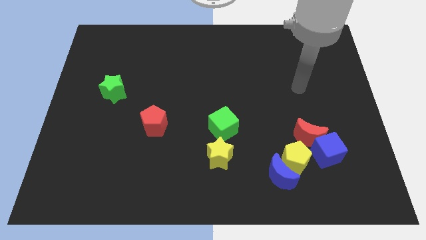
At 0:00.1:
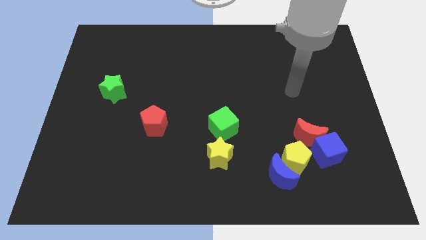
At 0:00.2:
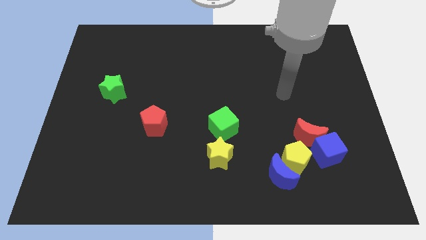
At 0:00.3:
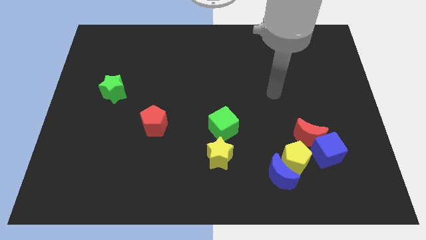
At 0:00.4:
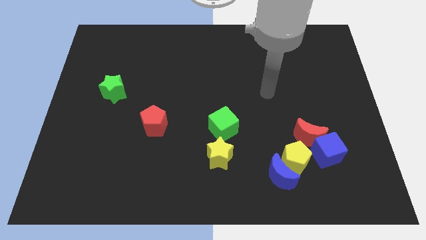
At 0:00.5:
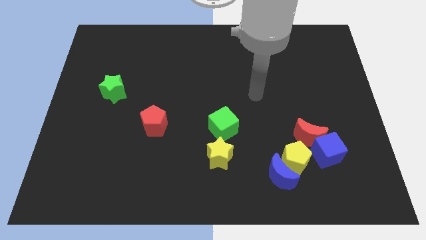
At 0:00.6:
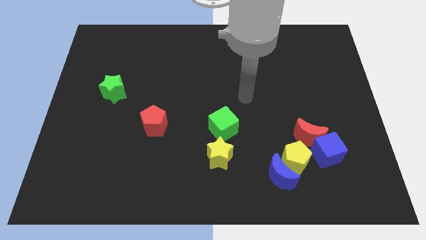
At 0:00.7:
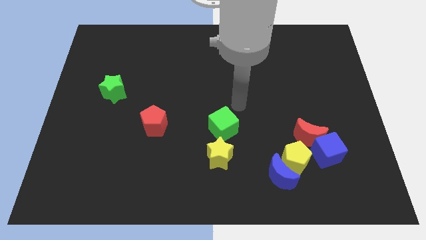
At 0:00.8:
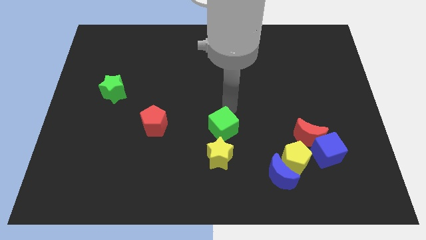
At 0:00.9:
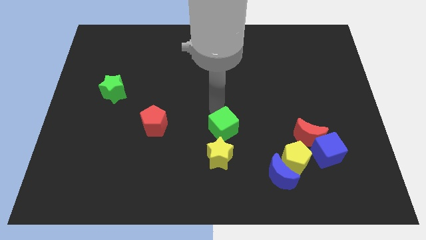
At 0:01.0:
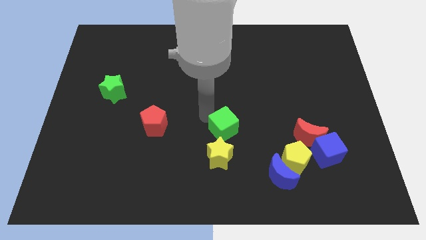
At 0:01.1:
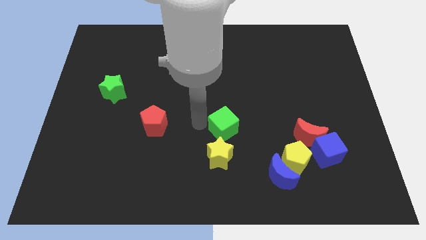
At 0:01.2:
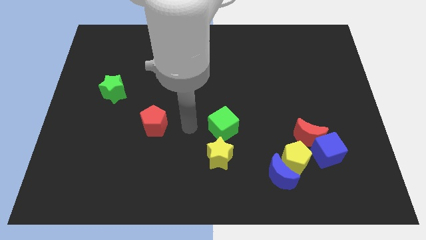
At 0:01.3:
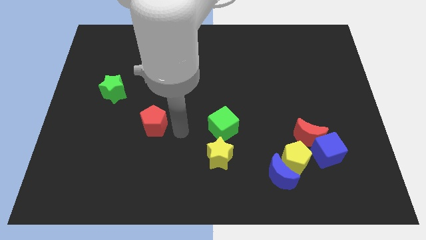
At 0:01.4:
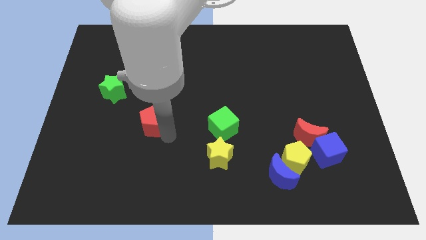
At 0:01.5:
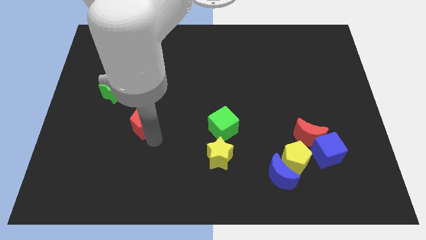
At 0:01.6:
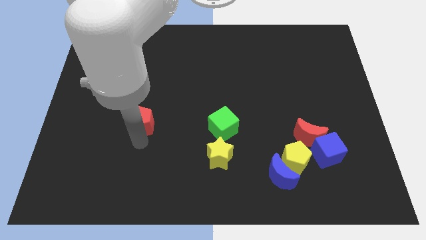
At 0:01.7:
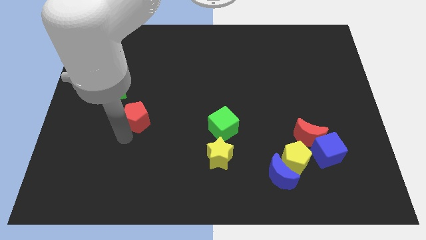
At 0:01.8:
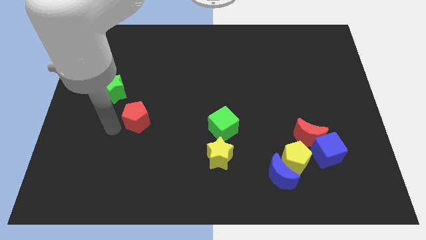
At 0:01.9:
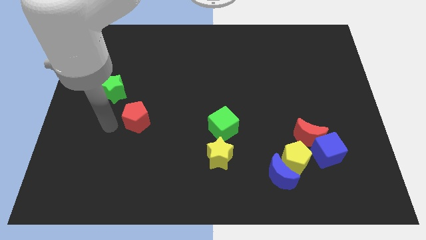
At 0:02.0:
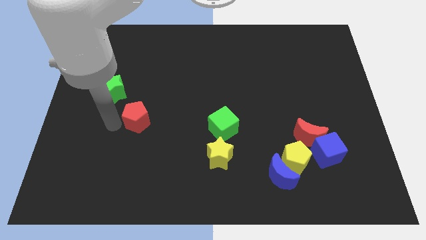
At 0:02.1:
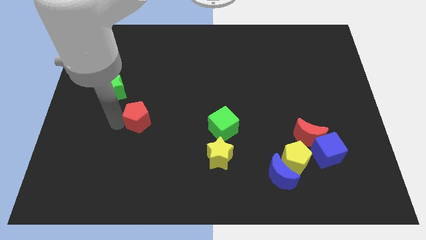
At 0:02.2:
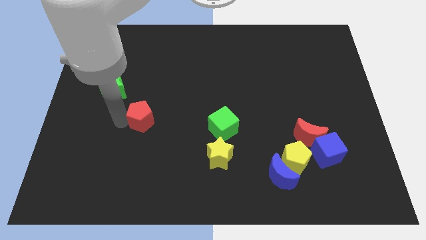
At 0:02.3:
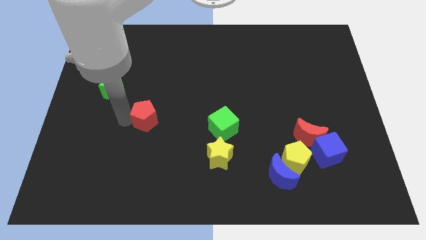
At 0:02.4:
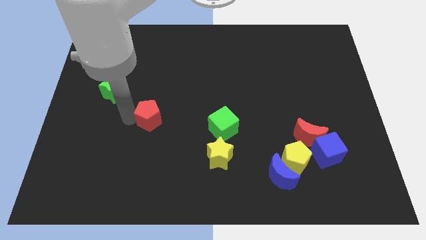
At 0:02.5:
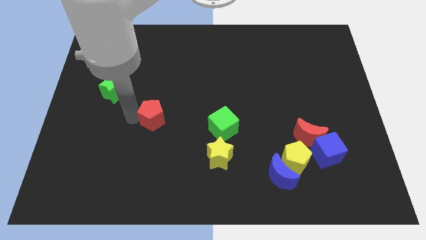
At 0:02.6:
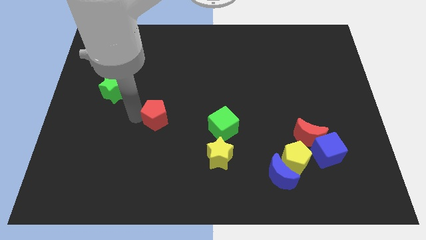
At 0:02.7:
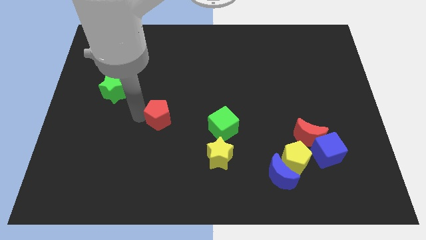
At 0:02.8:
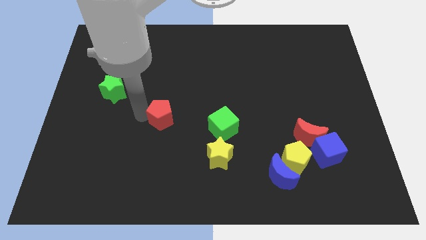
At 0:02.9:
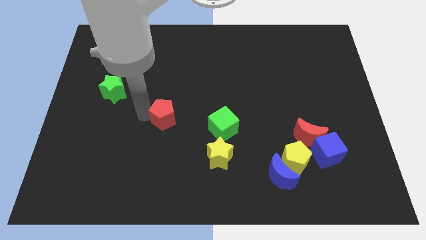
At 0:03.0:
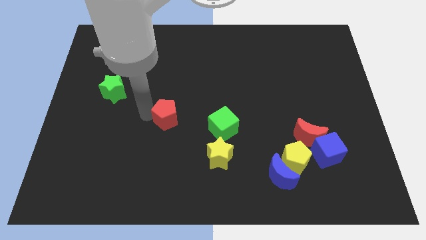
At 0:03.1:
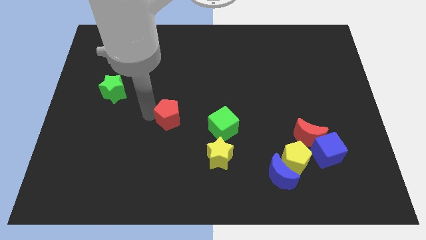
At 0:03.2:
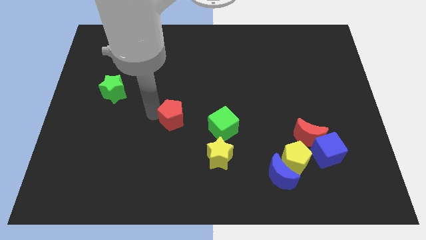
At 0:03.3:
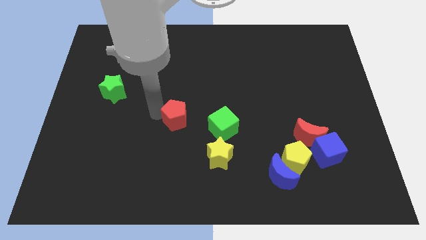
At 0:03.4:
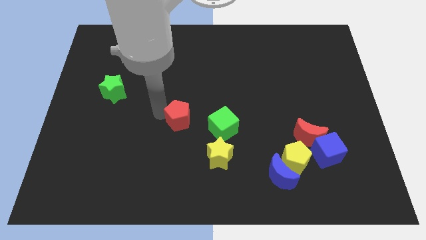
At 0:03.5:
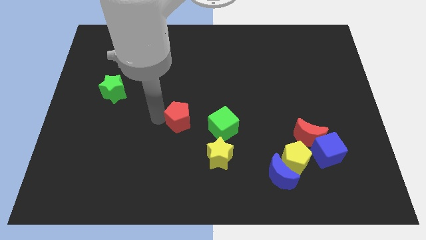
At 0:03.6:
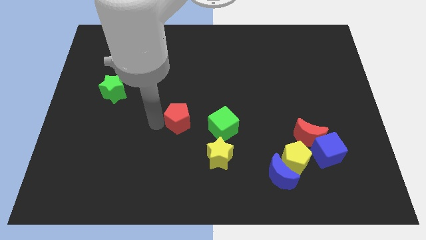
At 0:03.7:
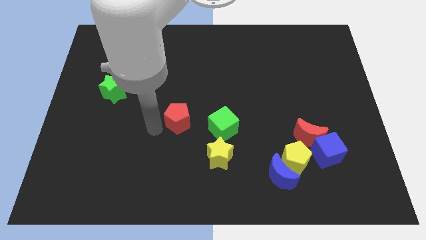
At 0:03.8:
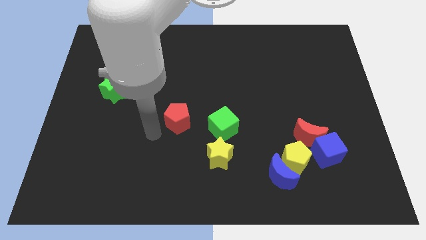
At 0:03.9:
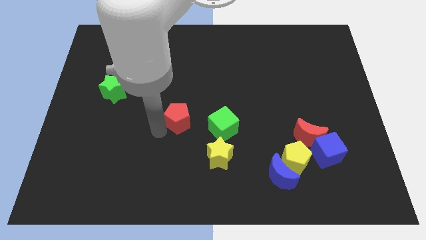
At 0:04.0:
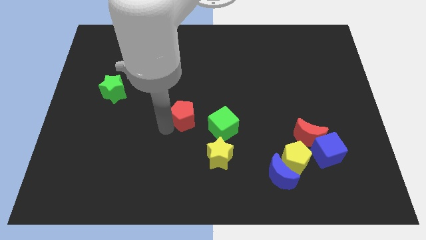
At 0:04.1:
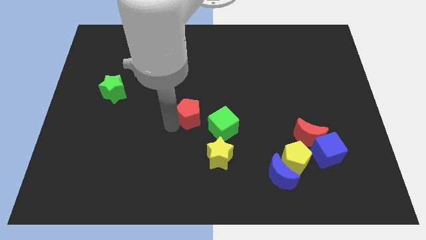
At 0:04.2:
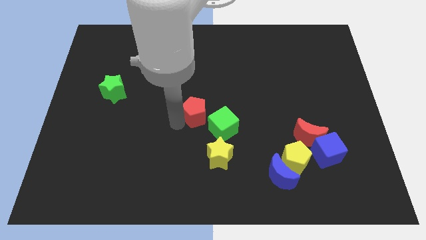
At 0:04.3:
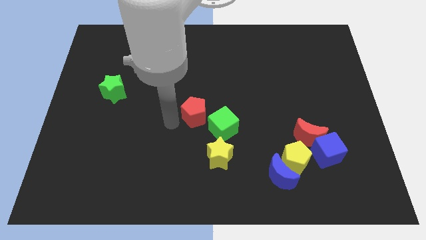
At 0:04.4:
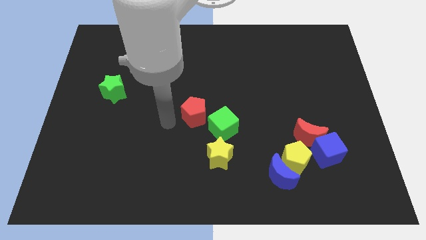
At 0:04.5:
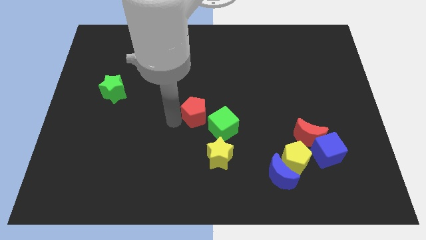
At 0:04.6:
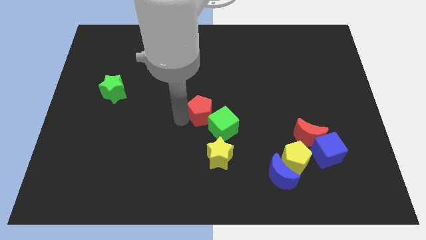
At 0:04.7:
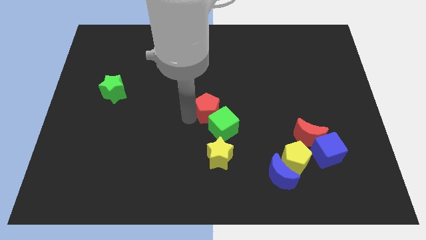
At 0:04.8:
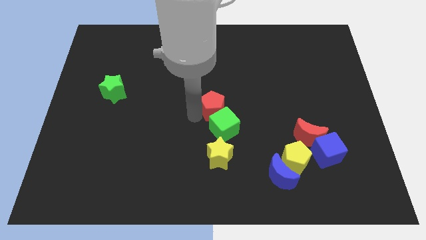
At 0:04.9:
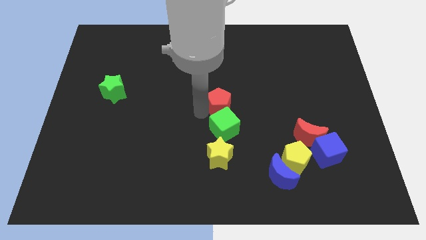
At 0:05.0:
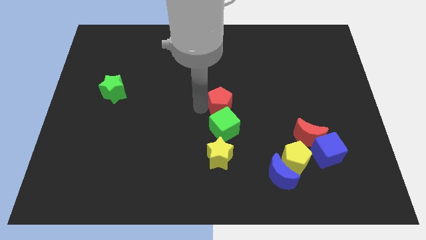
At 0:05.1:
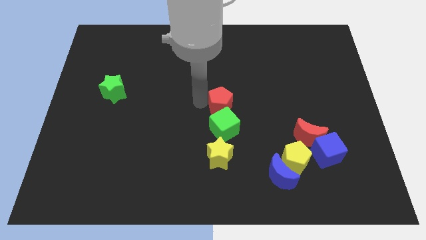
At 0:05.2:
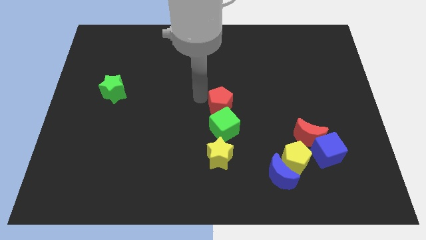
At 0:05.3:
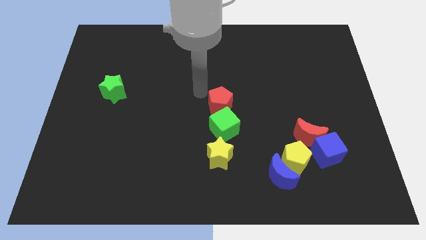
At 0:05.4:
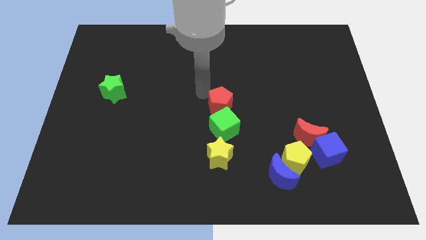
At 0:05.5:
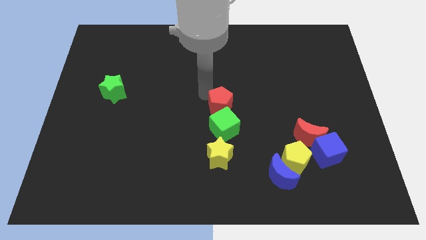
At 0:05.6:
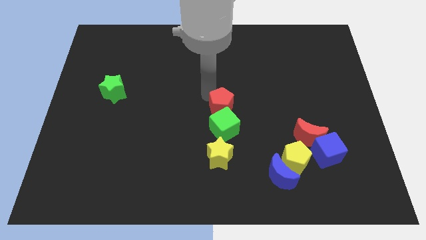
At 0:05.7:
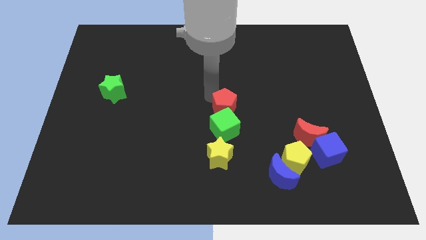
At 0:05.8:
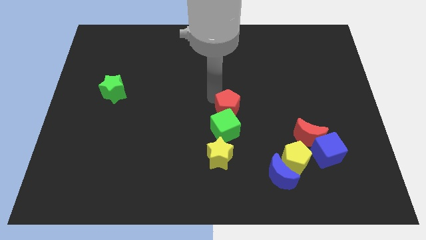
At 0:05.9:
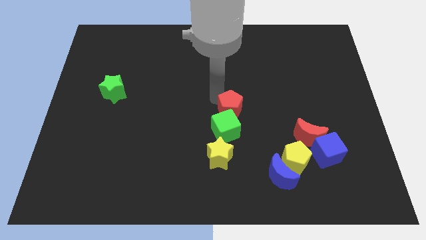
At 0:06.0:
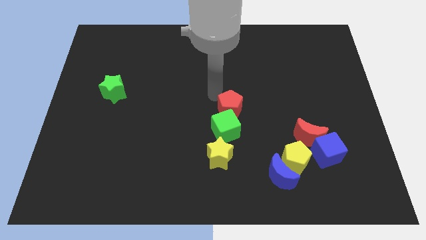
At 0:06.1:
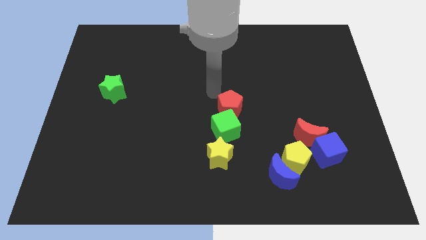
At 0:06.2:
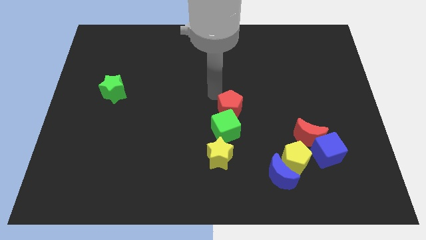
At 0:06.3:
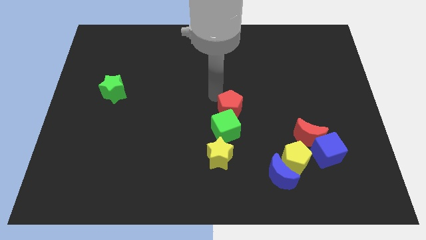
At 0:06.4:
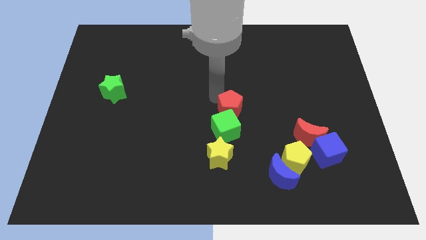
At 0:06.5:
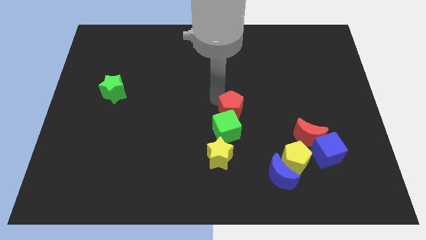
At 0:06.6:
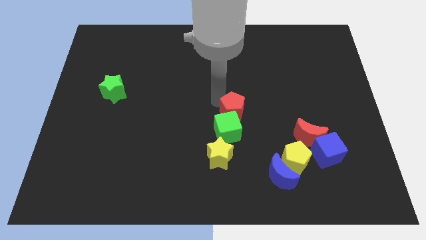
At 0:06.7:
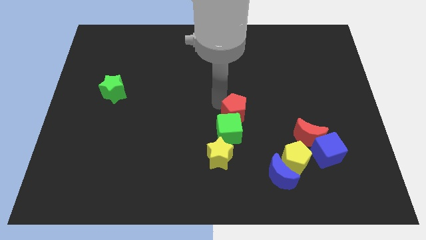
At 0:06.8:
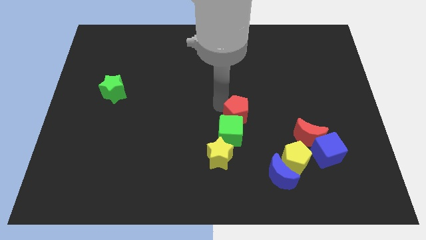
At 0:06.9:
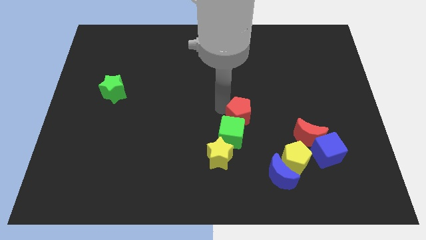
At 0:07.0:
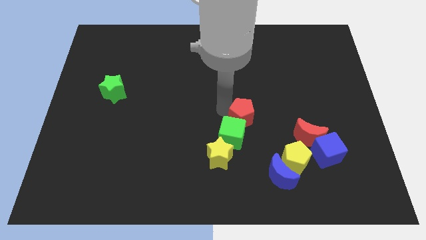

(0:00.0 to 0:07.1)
push the red pentagon to the right

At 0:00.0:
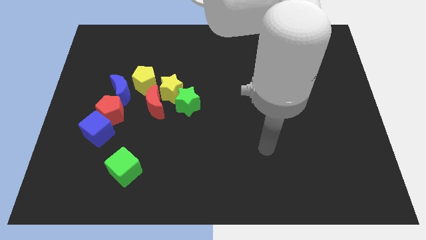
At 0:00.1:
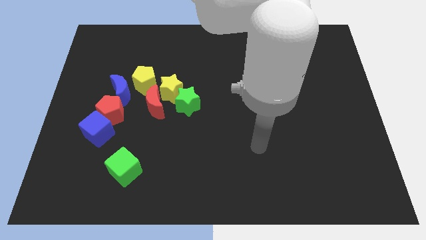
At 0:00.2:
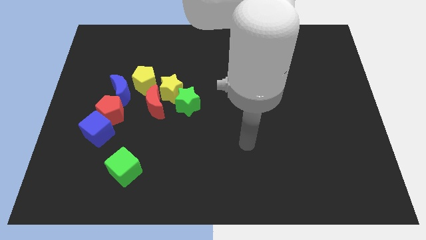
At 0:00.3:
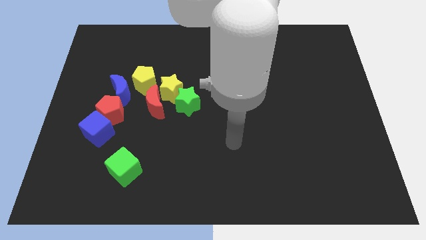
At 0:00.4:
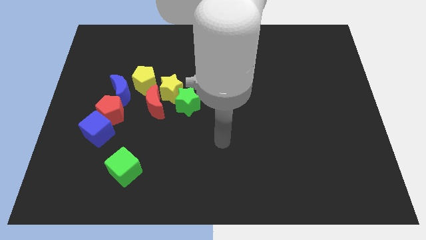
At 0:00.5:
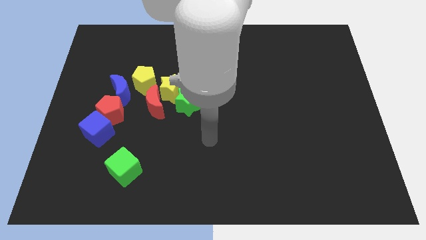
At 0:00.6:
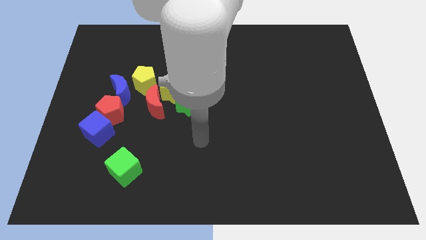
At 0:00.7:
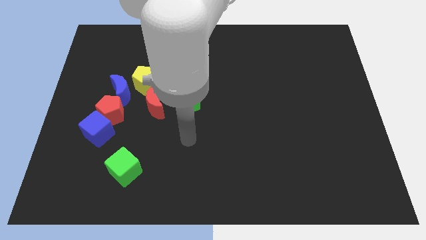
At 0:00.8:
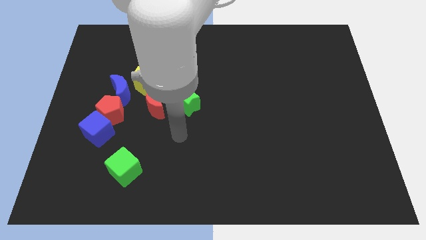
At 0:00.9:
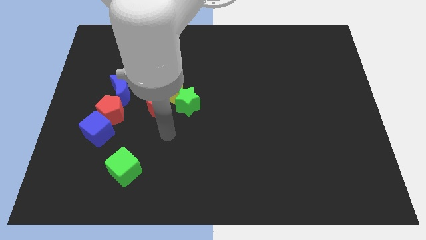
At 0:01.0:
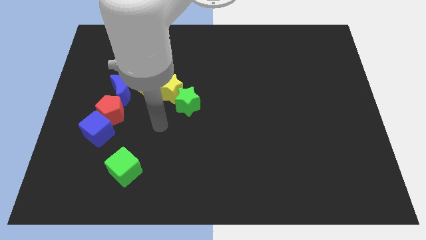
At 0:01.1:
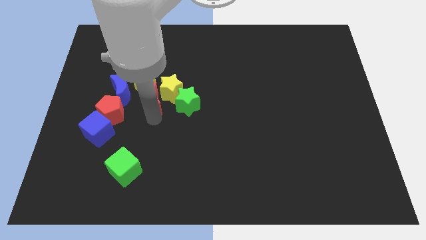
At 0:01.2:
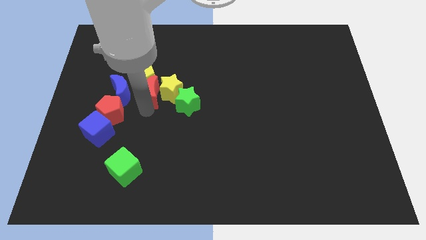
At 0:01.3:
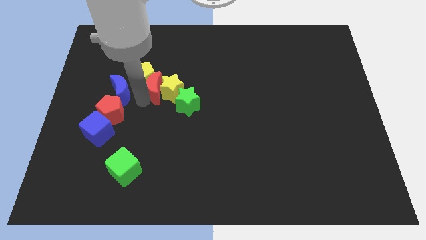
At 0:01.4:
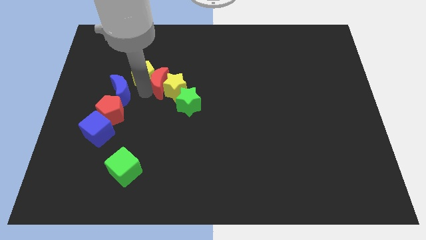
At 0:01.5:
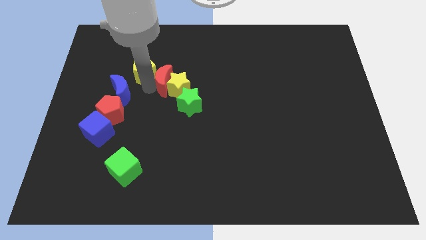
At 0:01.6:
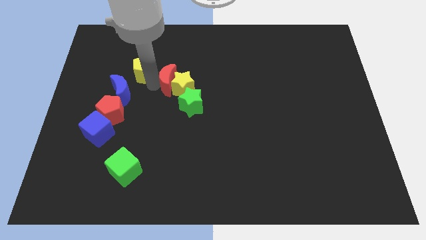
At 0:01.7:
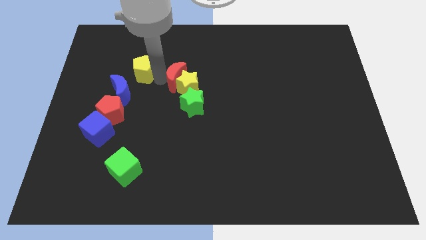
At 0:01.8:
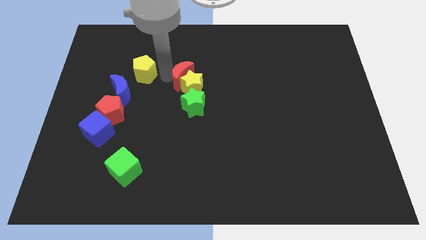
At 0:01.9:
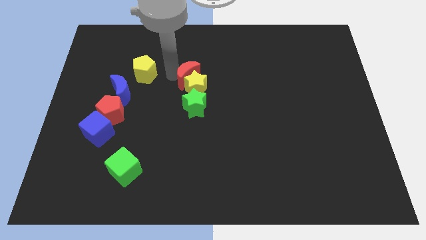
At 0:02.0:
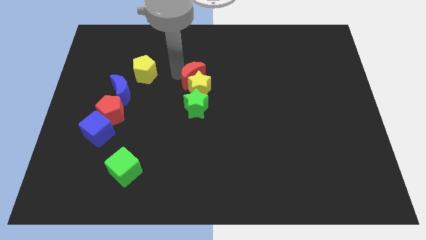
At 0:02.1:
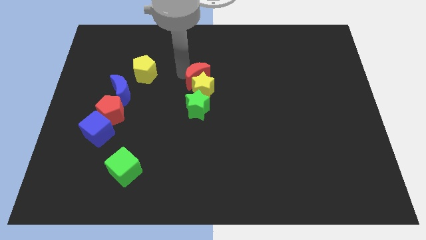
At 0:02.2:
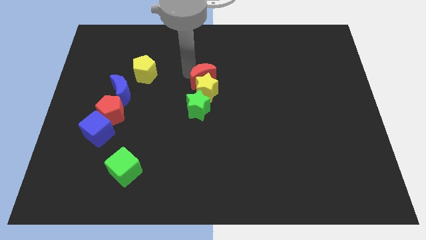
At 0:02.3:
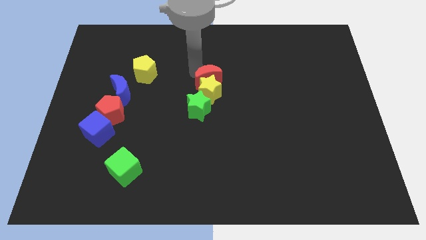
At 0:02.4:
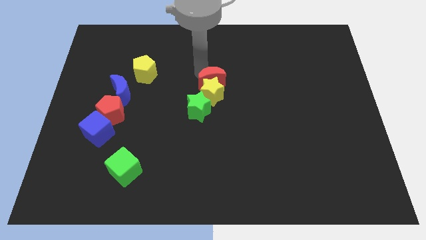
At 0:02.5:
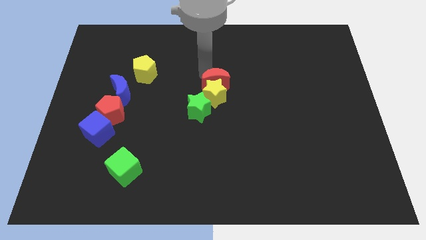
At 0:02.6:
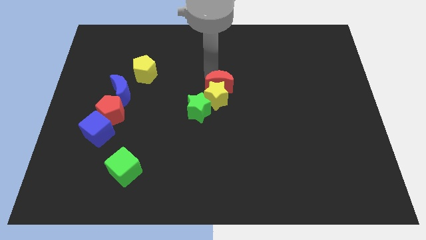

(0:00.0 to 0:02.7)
slightly push the yellow star downwards and to the right diagonally
